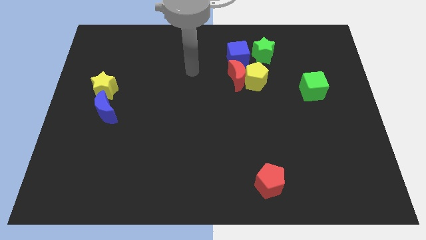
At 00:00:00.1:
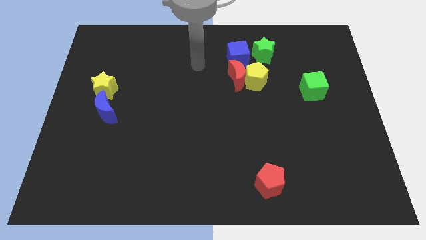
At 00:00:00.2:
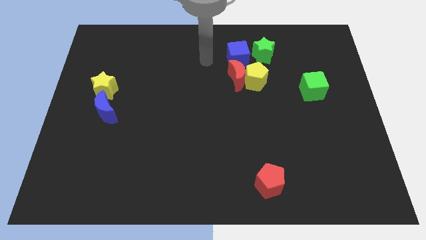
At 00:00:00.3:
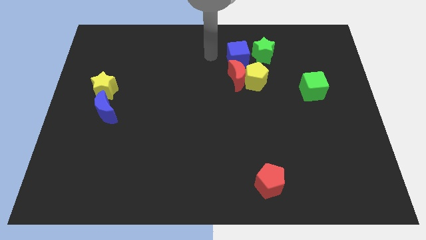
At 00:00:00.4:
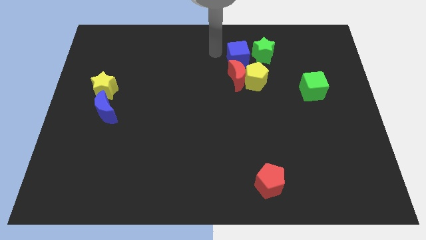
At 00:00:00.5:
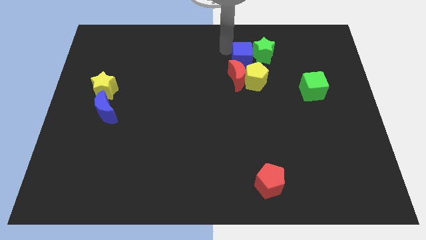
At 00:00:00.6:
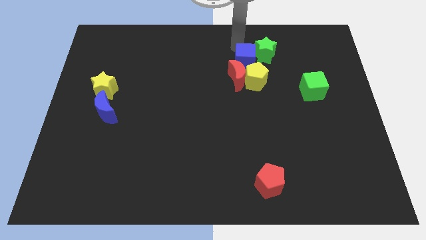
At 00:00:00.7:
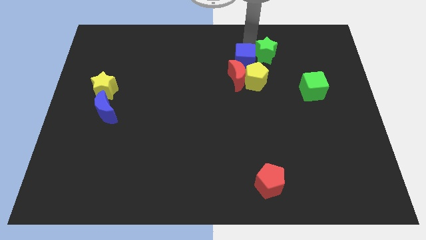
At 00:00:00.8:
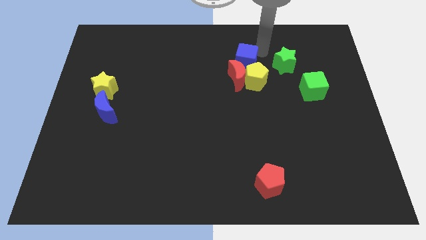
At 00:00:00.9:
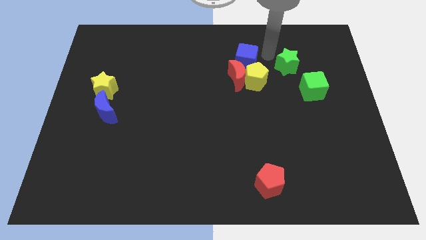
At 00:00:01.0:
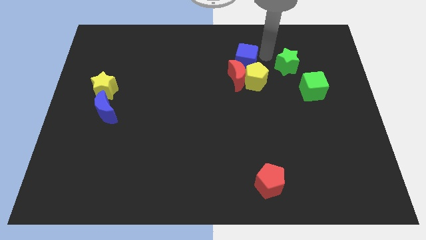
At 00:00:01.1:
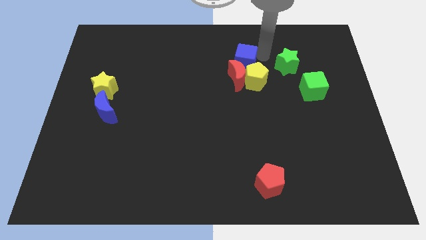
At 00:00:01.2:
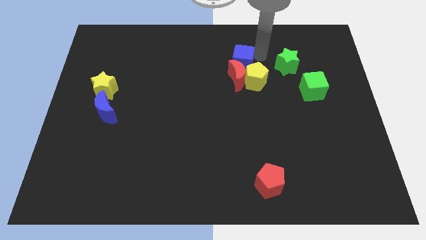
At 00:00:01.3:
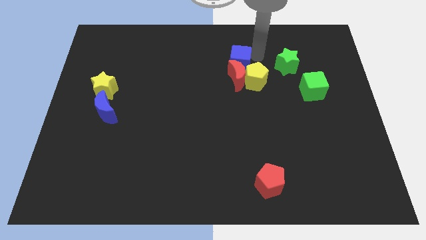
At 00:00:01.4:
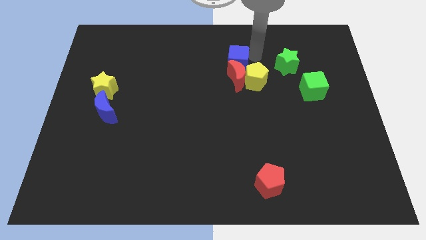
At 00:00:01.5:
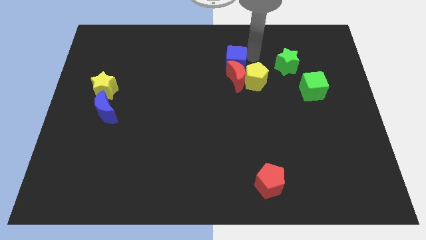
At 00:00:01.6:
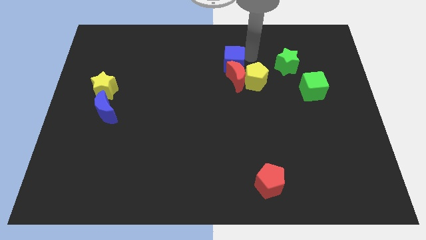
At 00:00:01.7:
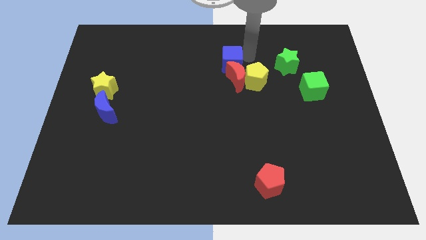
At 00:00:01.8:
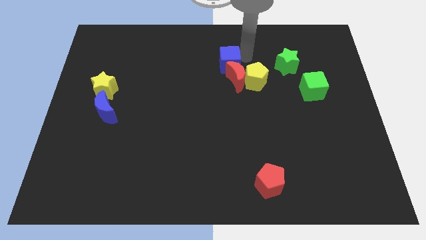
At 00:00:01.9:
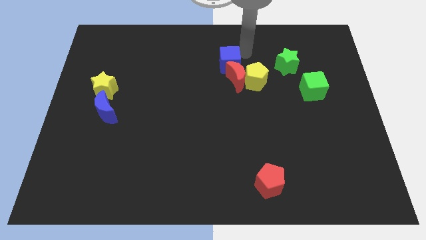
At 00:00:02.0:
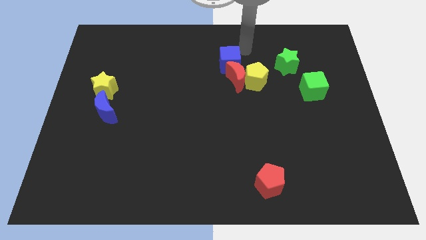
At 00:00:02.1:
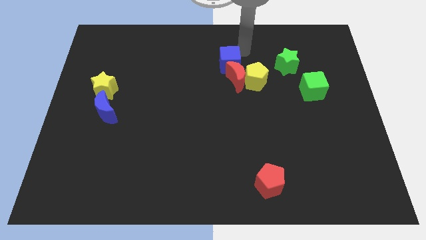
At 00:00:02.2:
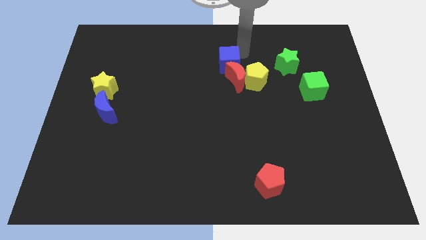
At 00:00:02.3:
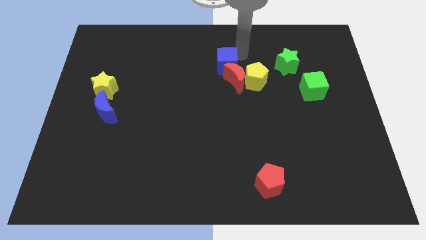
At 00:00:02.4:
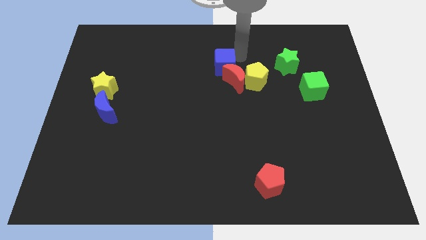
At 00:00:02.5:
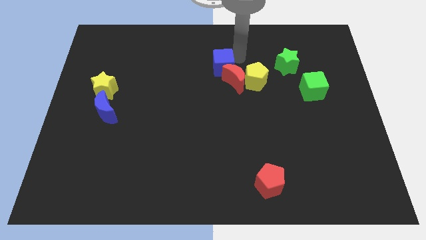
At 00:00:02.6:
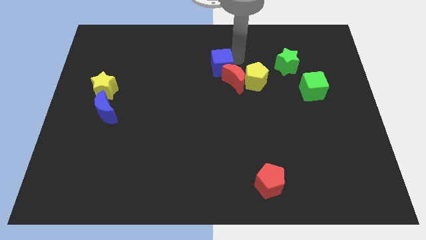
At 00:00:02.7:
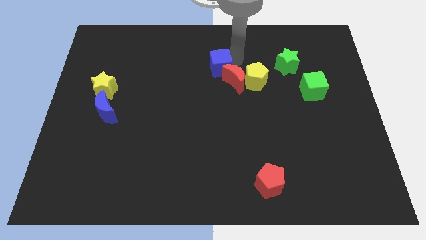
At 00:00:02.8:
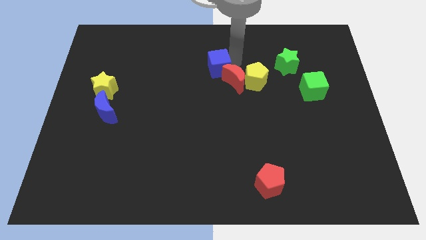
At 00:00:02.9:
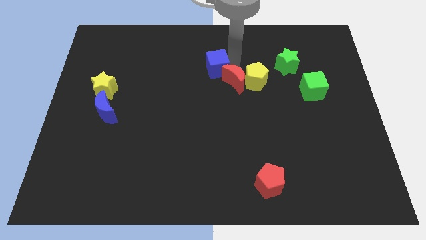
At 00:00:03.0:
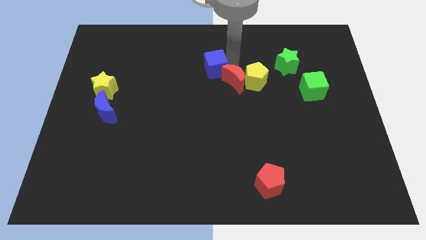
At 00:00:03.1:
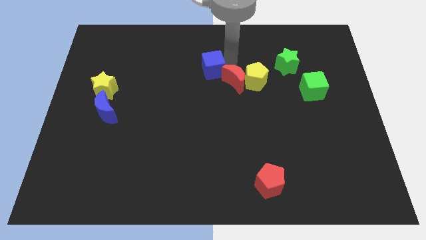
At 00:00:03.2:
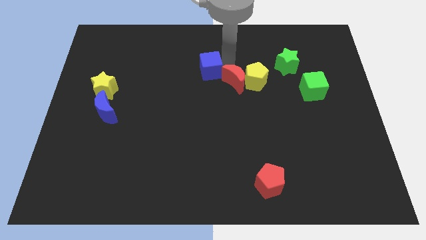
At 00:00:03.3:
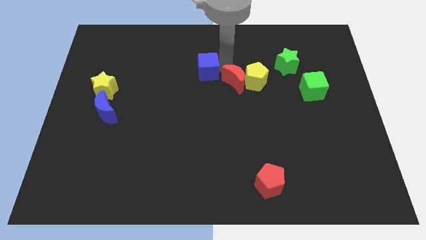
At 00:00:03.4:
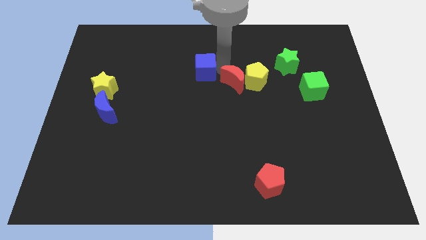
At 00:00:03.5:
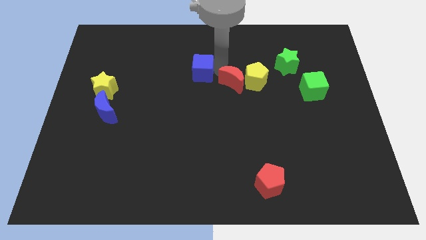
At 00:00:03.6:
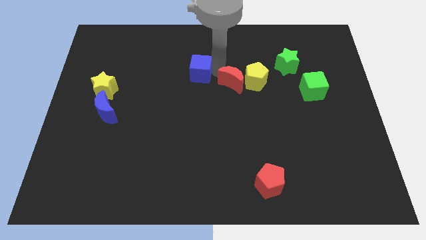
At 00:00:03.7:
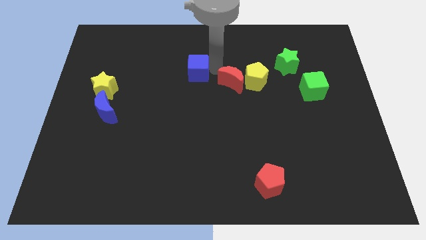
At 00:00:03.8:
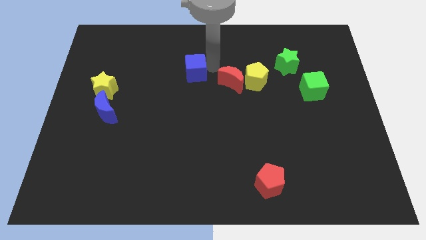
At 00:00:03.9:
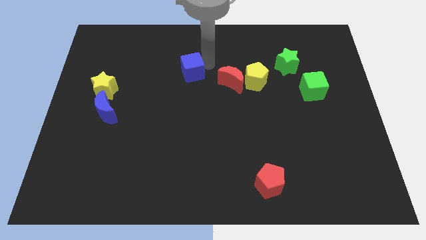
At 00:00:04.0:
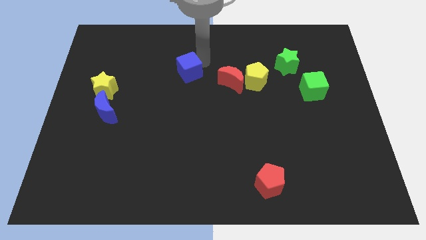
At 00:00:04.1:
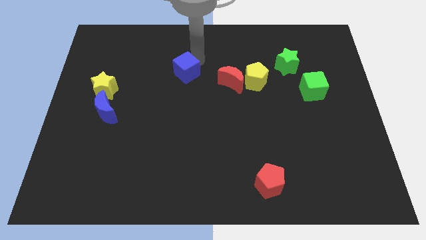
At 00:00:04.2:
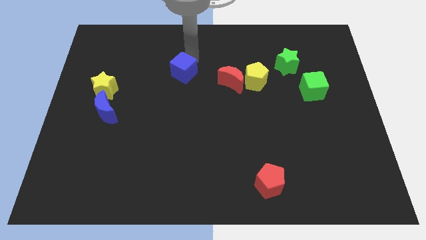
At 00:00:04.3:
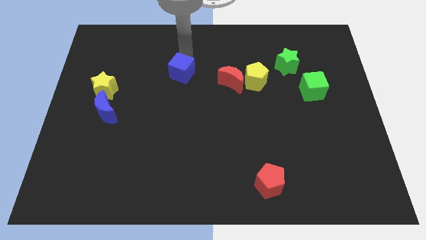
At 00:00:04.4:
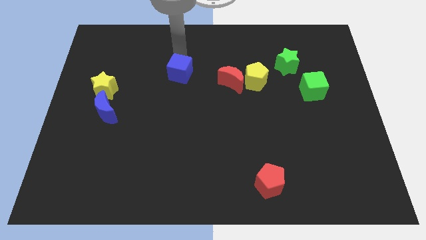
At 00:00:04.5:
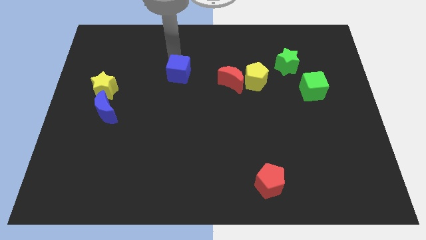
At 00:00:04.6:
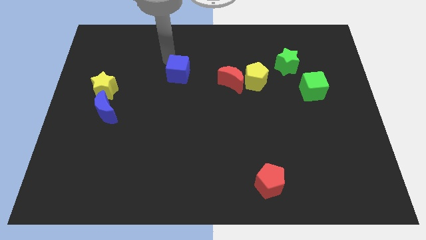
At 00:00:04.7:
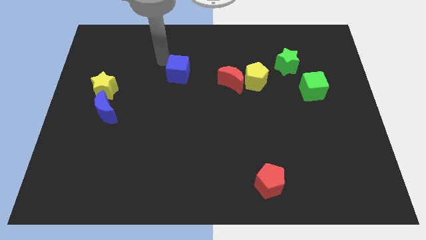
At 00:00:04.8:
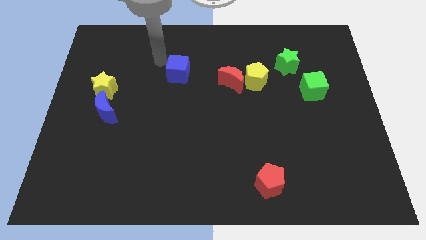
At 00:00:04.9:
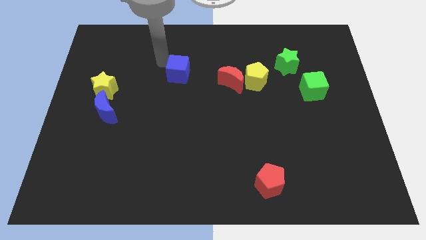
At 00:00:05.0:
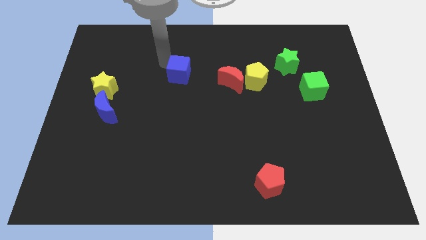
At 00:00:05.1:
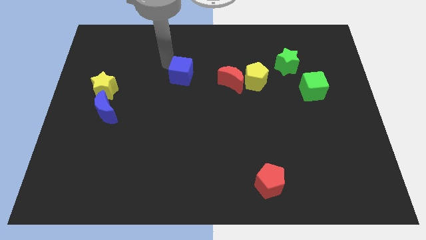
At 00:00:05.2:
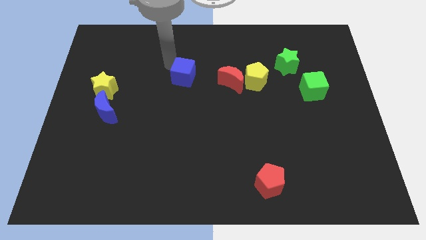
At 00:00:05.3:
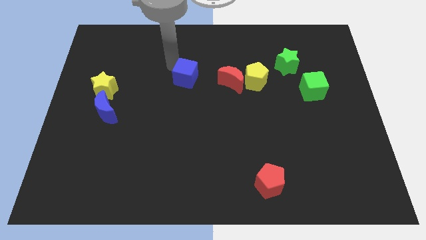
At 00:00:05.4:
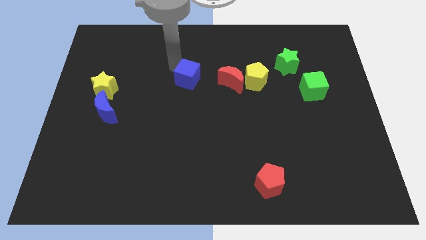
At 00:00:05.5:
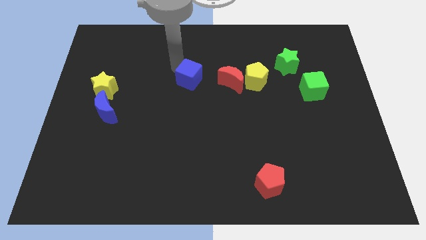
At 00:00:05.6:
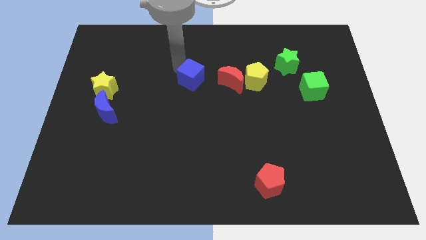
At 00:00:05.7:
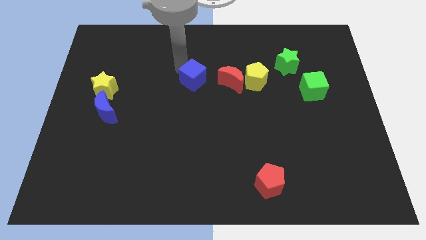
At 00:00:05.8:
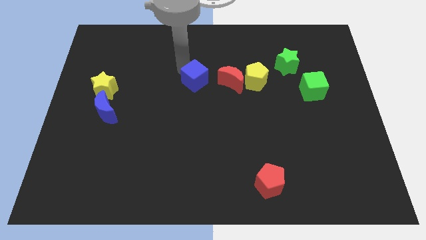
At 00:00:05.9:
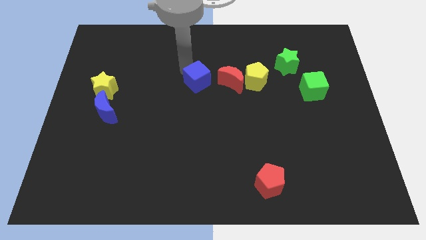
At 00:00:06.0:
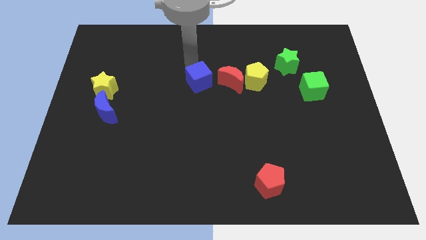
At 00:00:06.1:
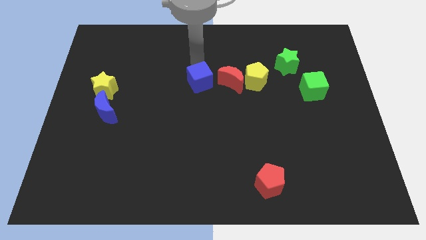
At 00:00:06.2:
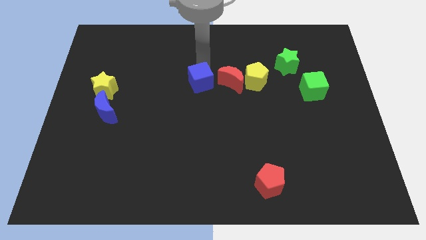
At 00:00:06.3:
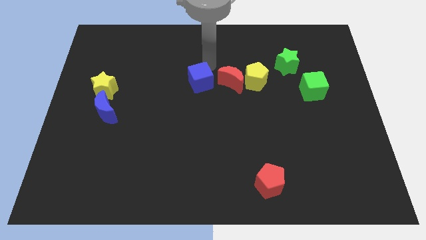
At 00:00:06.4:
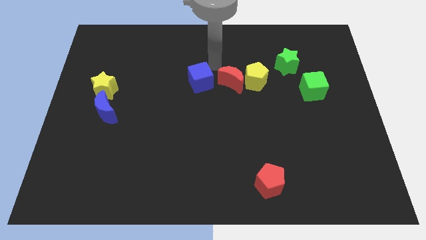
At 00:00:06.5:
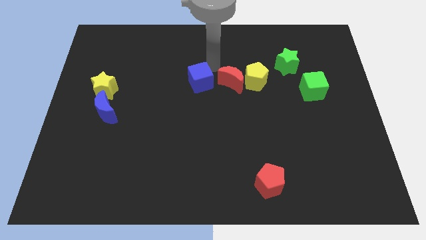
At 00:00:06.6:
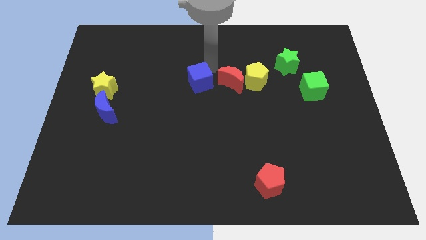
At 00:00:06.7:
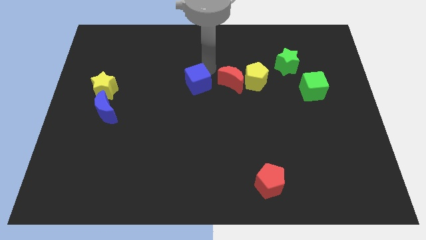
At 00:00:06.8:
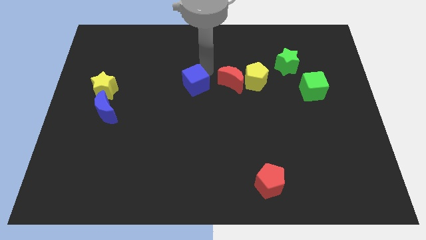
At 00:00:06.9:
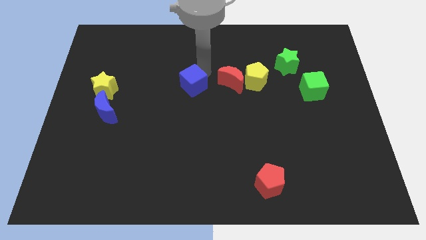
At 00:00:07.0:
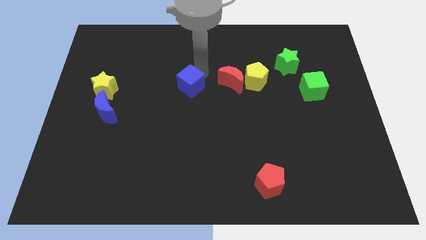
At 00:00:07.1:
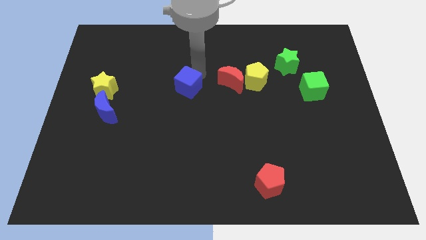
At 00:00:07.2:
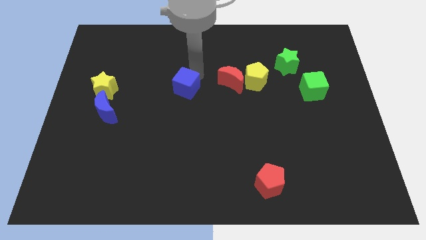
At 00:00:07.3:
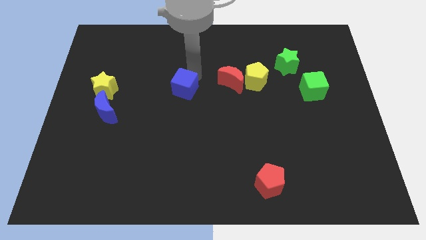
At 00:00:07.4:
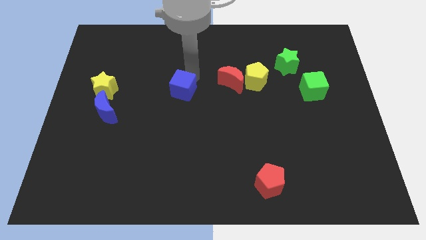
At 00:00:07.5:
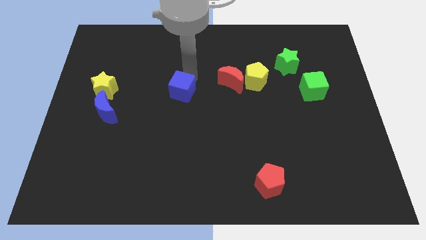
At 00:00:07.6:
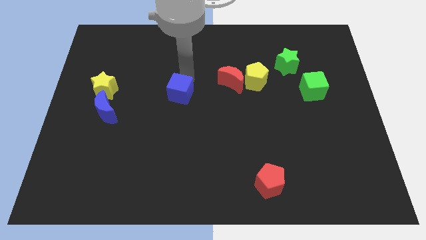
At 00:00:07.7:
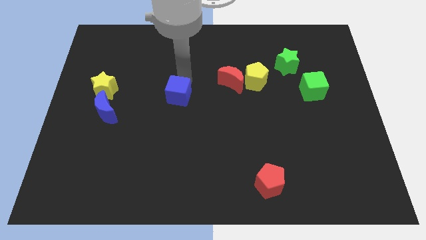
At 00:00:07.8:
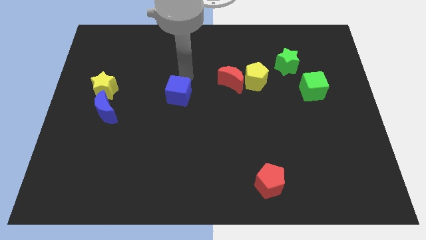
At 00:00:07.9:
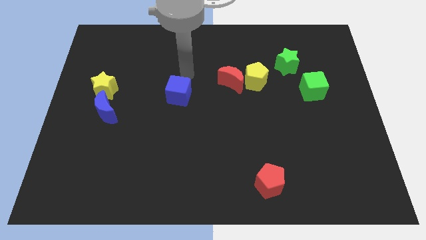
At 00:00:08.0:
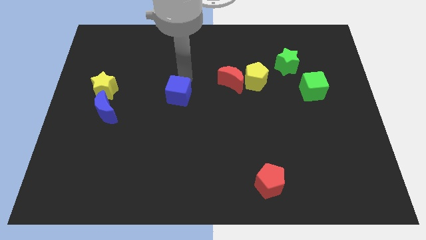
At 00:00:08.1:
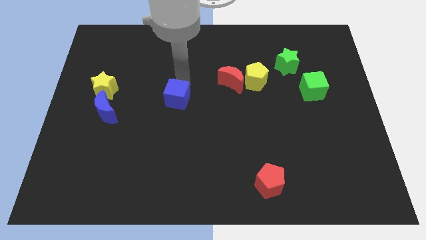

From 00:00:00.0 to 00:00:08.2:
push the blue cube down and left diagonally
